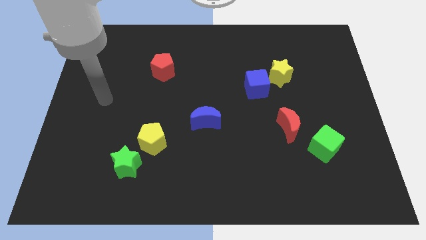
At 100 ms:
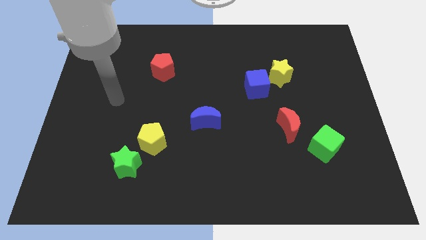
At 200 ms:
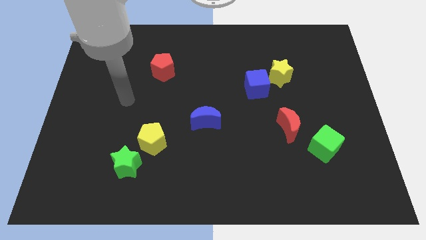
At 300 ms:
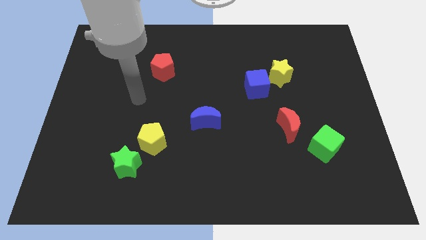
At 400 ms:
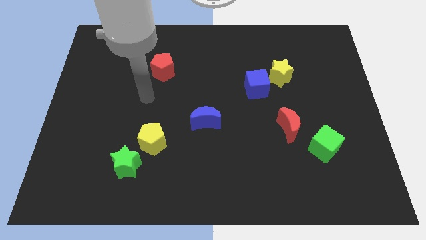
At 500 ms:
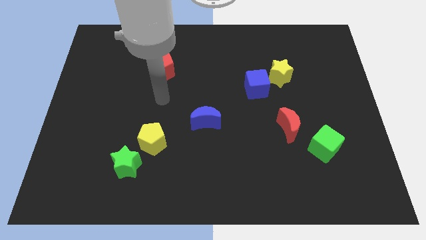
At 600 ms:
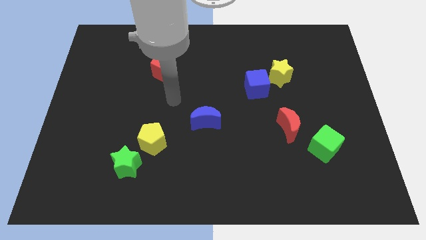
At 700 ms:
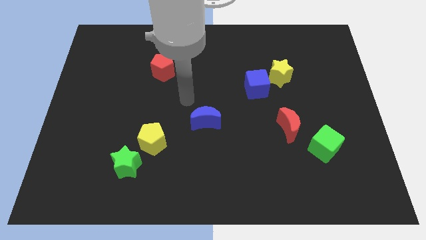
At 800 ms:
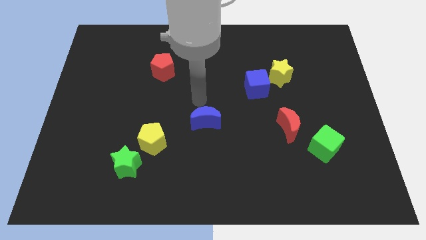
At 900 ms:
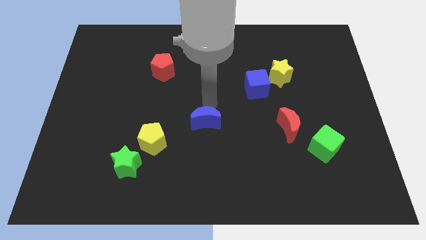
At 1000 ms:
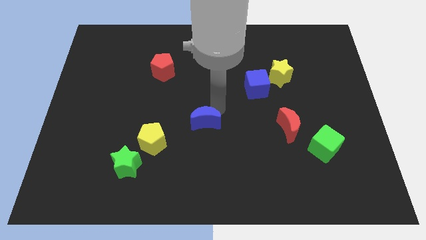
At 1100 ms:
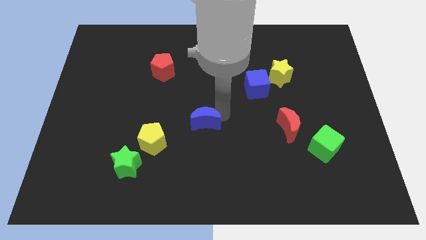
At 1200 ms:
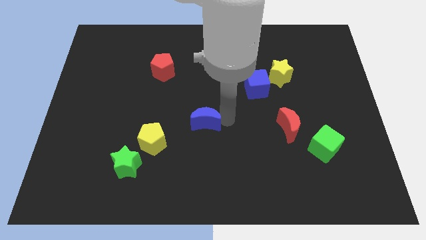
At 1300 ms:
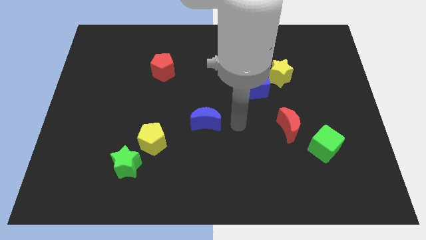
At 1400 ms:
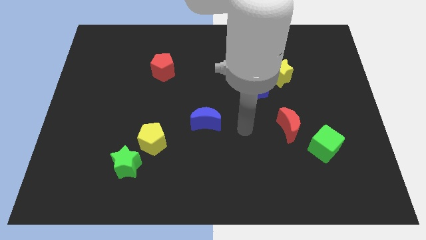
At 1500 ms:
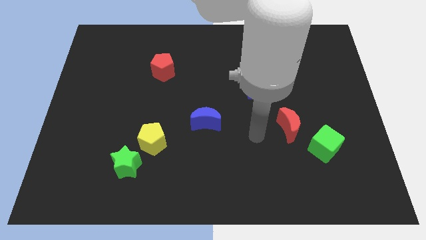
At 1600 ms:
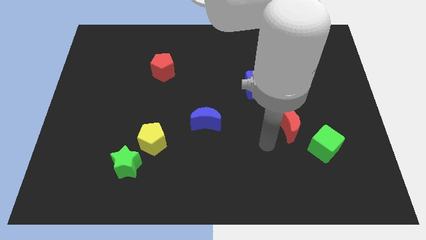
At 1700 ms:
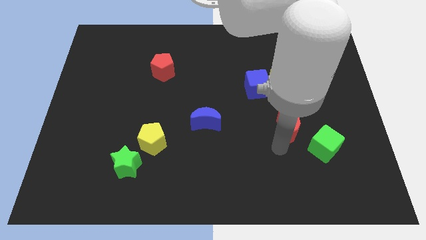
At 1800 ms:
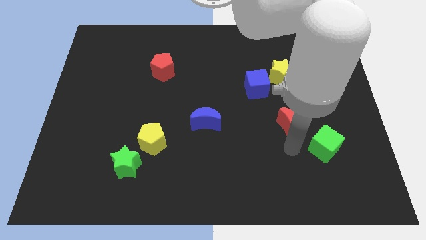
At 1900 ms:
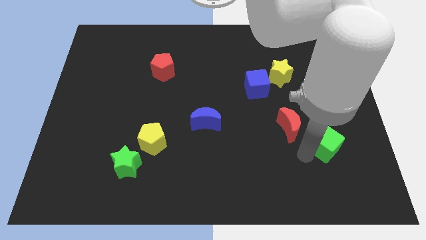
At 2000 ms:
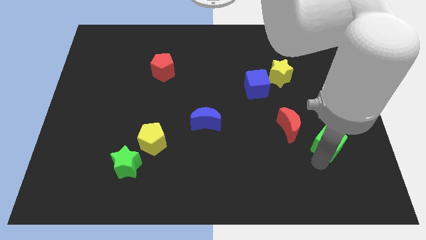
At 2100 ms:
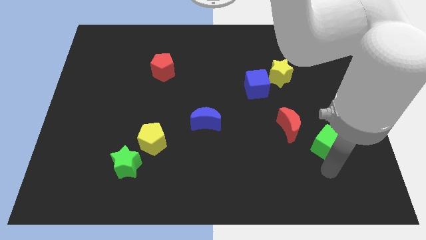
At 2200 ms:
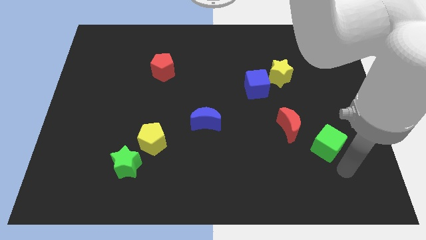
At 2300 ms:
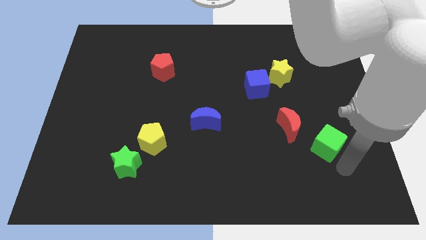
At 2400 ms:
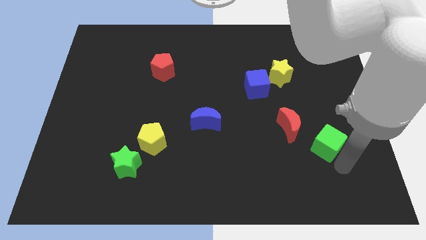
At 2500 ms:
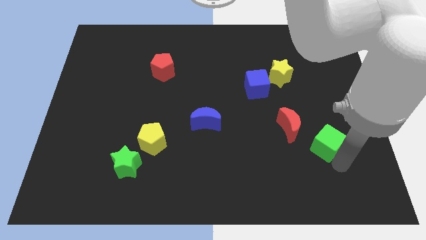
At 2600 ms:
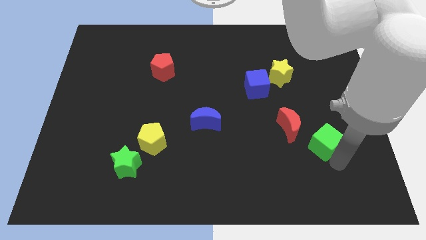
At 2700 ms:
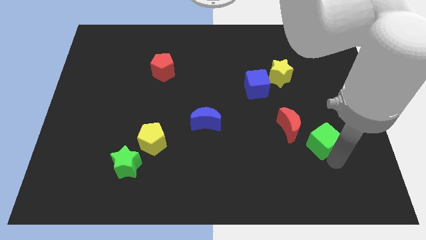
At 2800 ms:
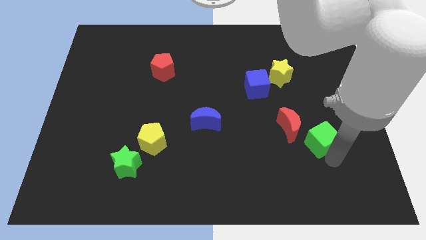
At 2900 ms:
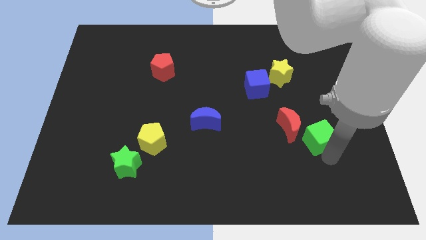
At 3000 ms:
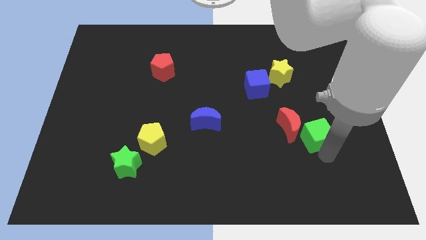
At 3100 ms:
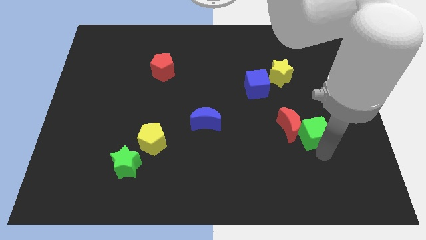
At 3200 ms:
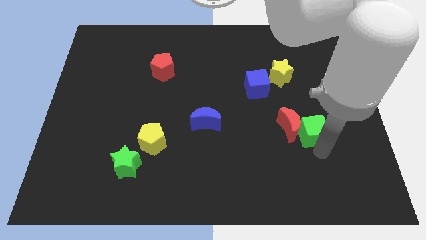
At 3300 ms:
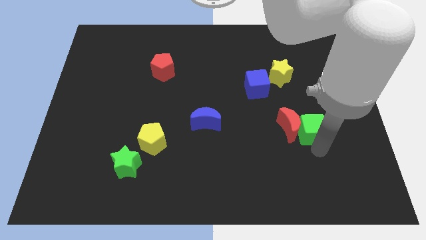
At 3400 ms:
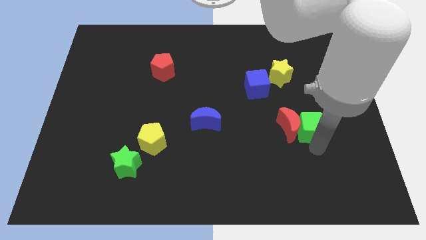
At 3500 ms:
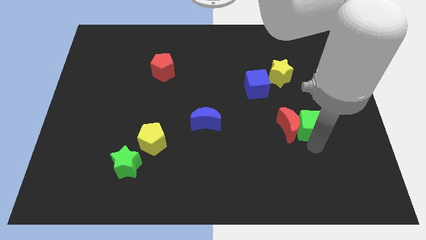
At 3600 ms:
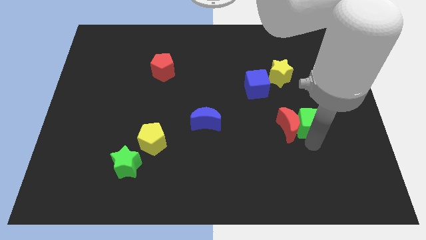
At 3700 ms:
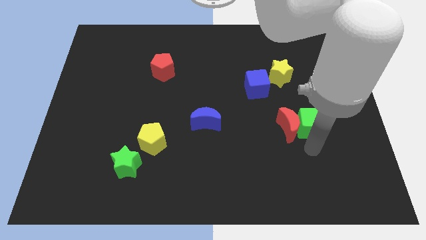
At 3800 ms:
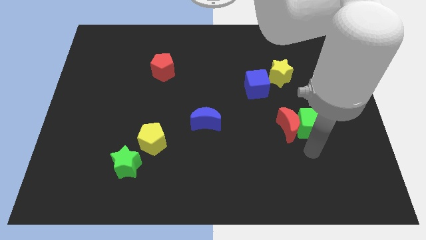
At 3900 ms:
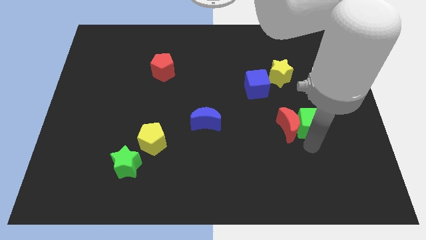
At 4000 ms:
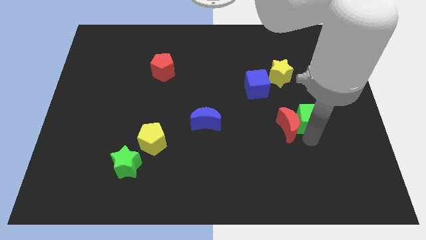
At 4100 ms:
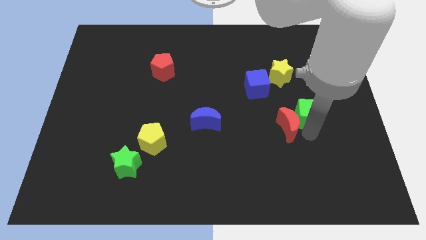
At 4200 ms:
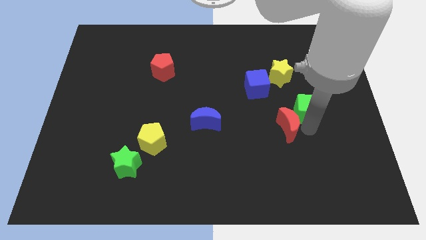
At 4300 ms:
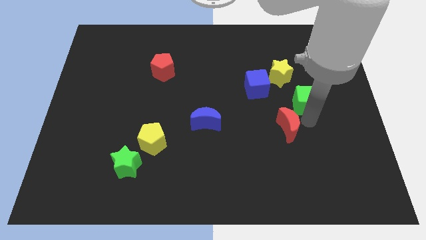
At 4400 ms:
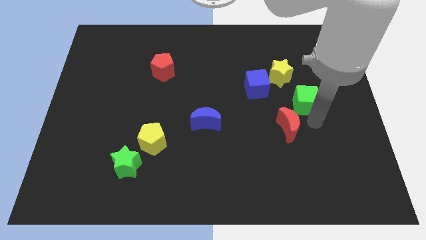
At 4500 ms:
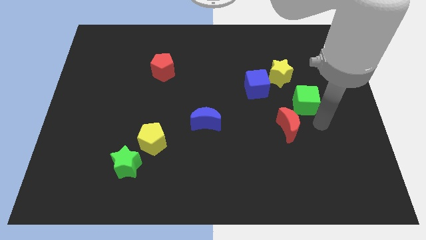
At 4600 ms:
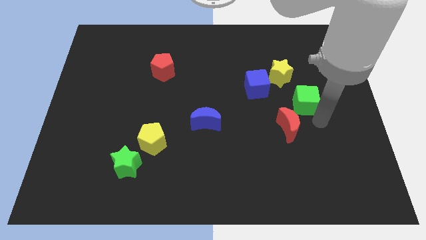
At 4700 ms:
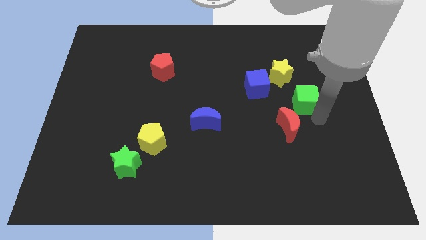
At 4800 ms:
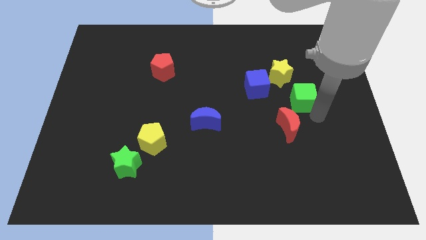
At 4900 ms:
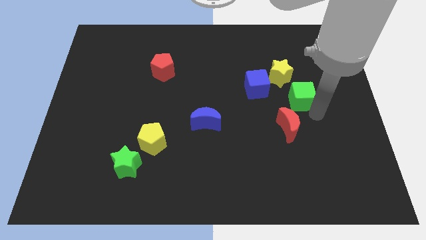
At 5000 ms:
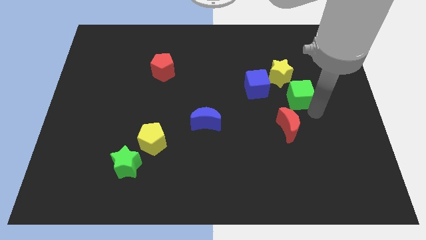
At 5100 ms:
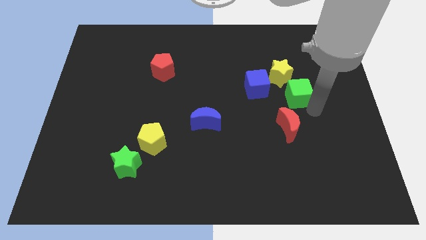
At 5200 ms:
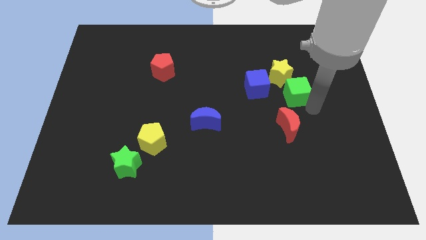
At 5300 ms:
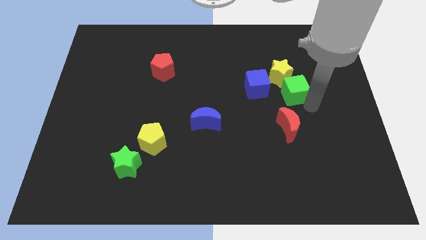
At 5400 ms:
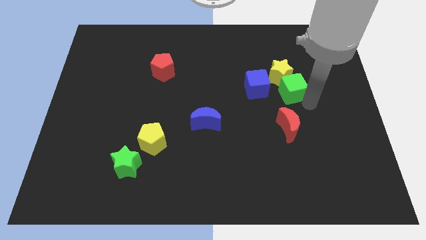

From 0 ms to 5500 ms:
push the green cube next to the yellow star

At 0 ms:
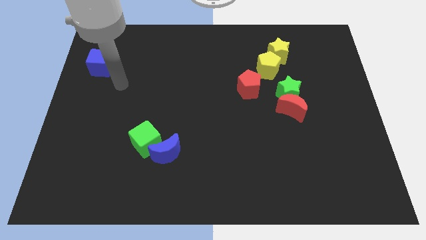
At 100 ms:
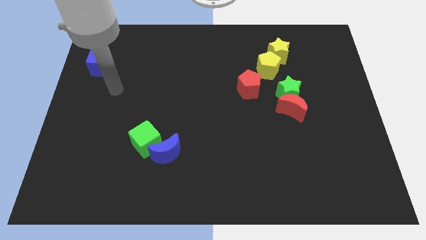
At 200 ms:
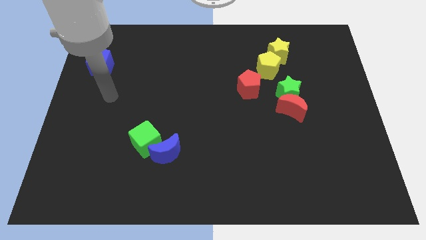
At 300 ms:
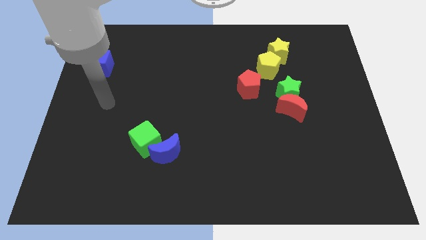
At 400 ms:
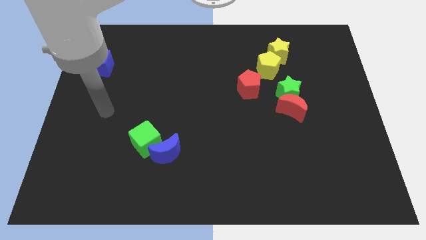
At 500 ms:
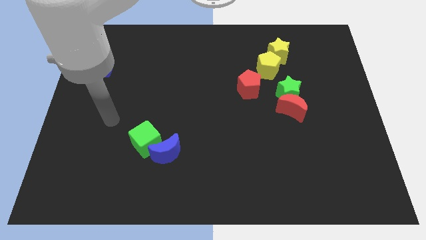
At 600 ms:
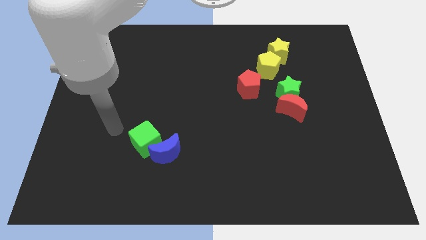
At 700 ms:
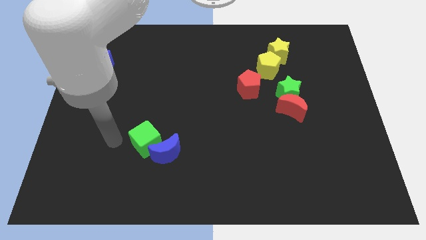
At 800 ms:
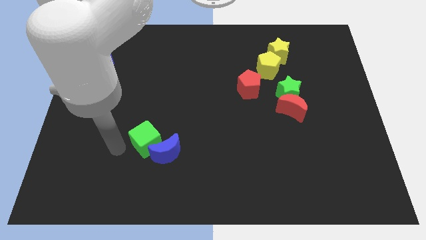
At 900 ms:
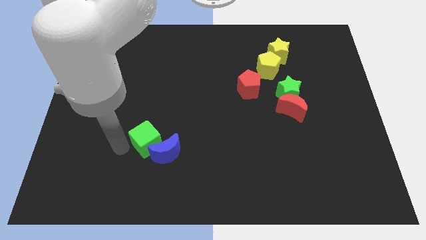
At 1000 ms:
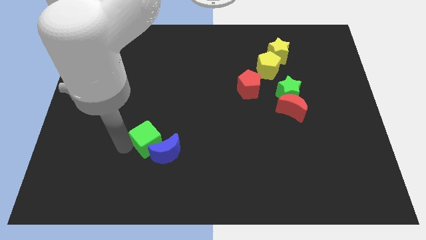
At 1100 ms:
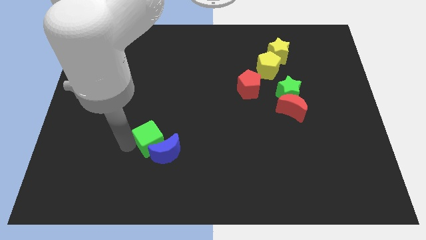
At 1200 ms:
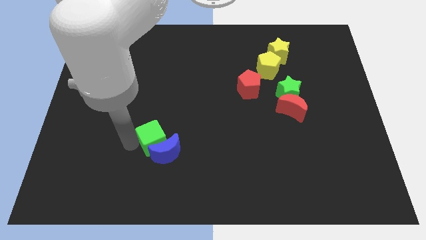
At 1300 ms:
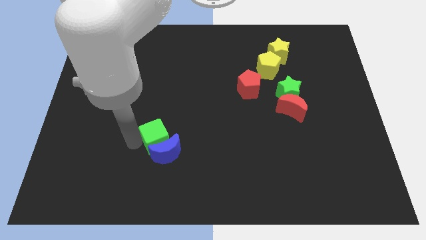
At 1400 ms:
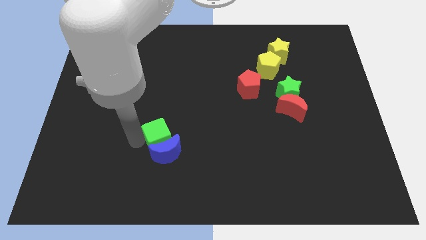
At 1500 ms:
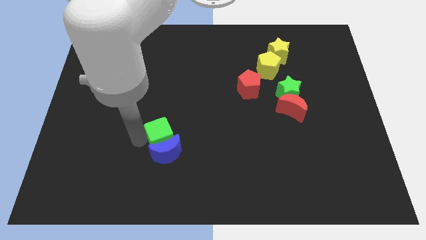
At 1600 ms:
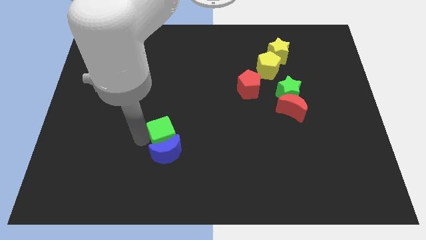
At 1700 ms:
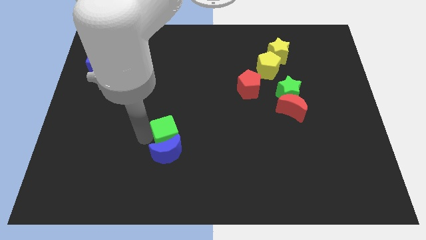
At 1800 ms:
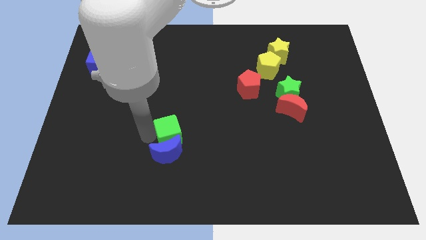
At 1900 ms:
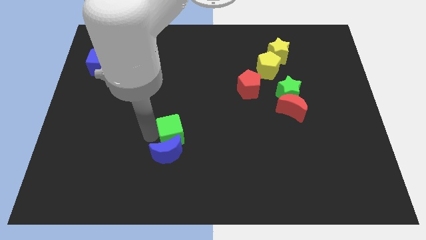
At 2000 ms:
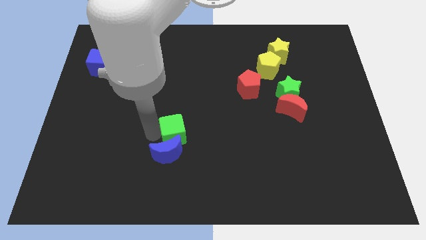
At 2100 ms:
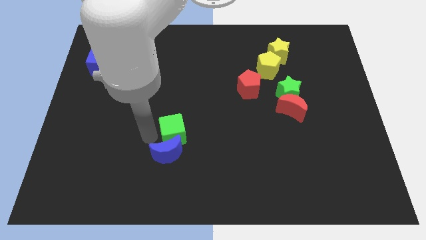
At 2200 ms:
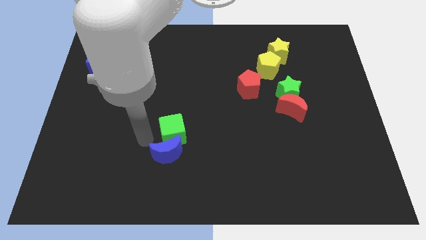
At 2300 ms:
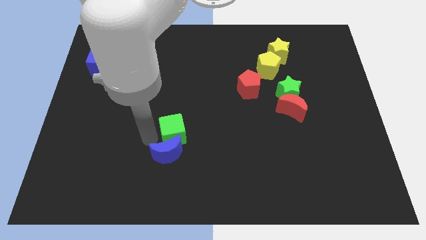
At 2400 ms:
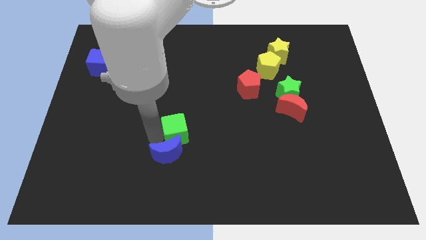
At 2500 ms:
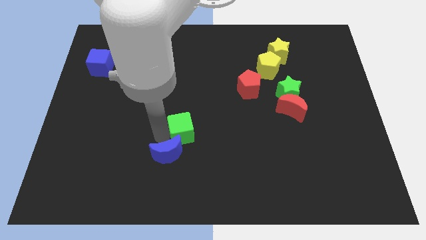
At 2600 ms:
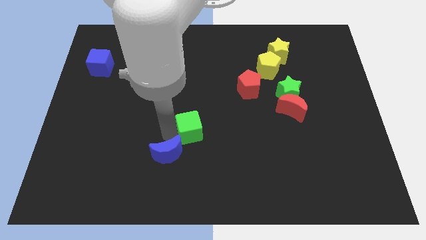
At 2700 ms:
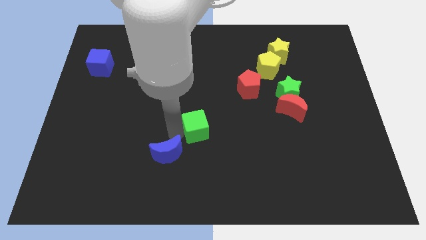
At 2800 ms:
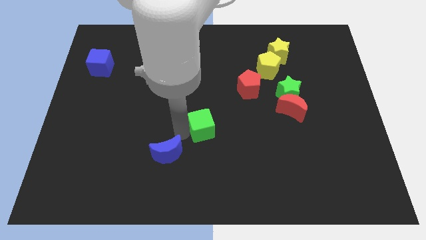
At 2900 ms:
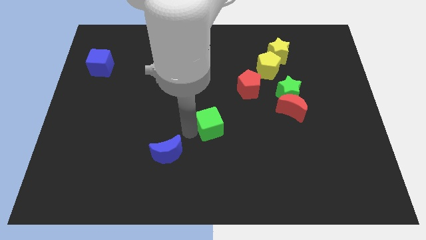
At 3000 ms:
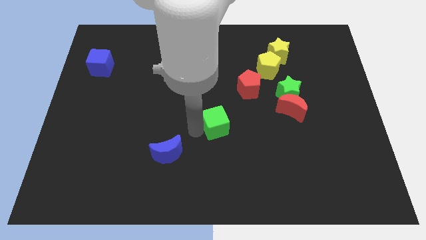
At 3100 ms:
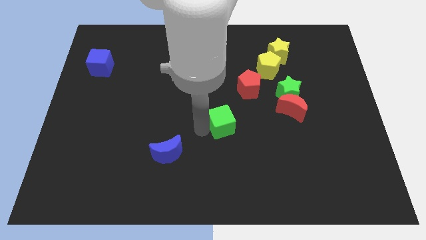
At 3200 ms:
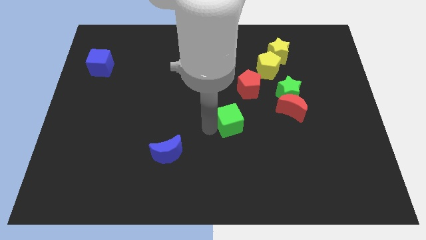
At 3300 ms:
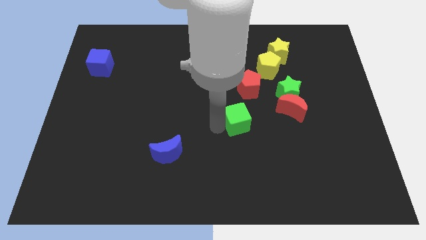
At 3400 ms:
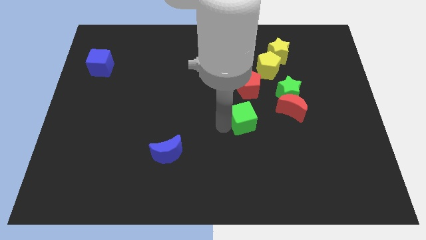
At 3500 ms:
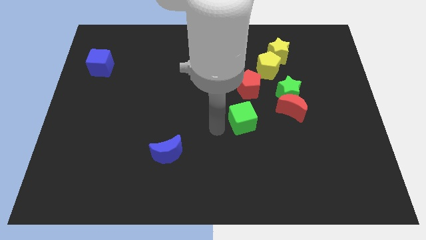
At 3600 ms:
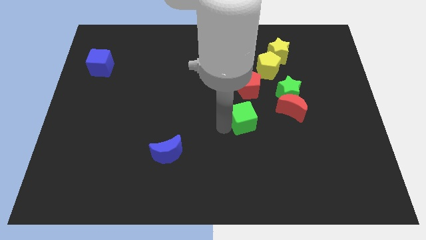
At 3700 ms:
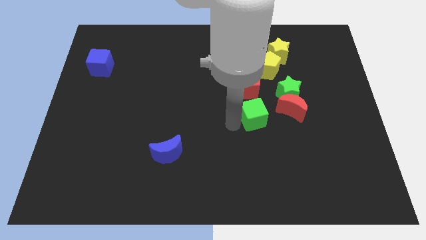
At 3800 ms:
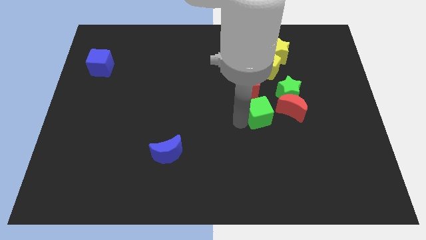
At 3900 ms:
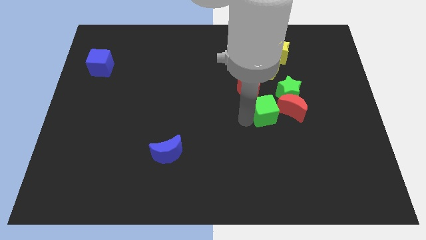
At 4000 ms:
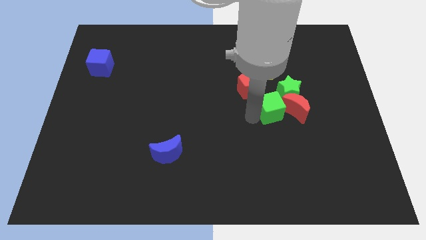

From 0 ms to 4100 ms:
slide the green cube towards the red moon
